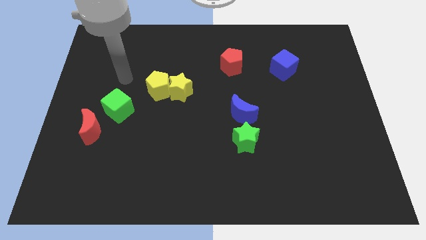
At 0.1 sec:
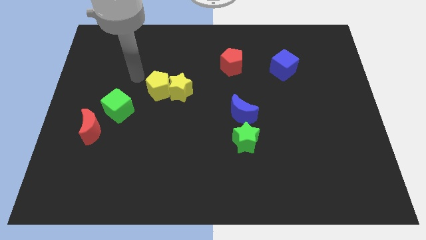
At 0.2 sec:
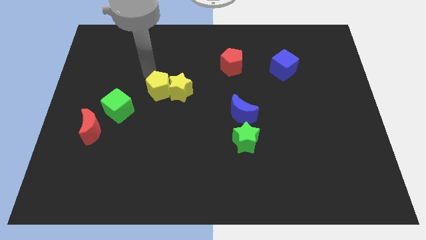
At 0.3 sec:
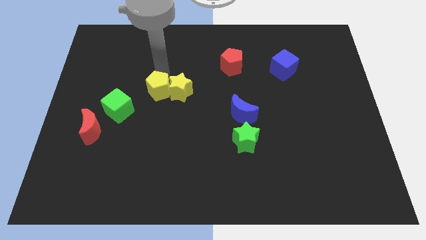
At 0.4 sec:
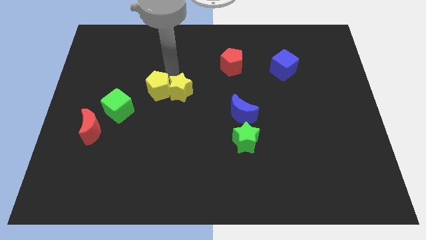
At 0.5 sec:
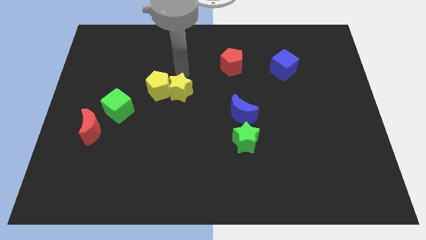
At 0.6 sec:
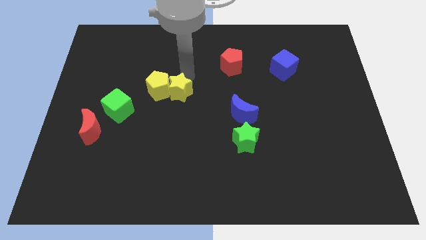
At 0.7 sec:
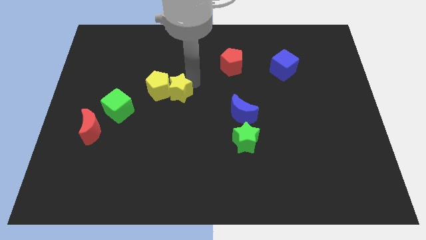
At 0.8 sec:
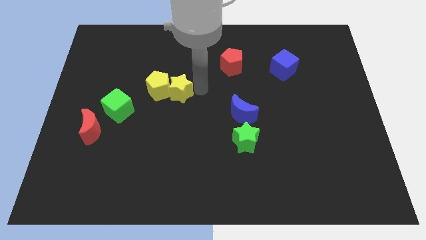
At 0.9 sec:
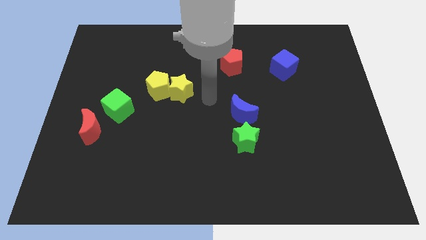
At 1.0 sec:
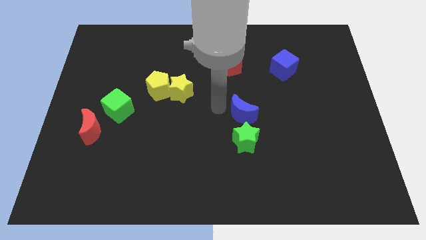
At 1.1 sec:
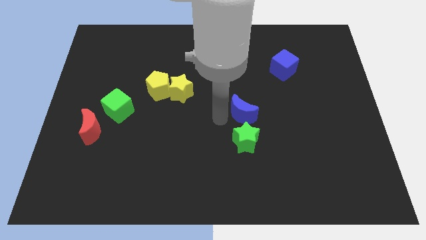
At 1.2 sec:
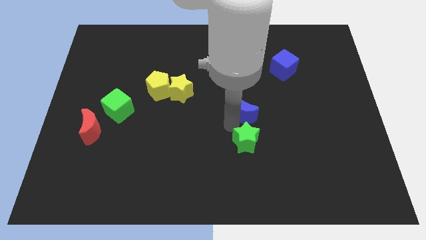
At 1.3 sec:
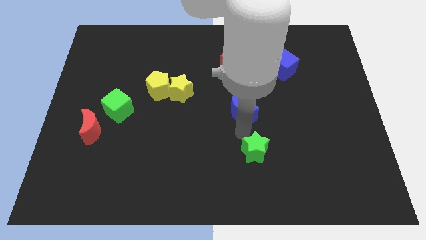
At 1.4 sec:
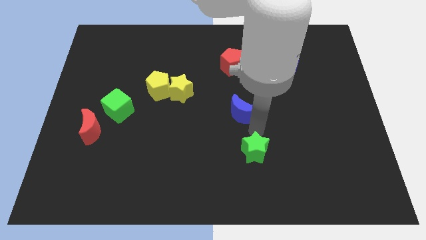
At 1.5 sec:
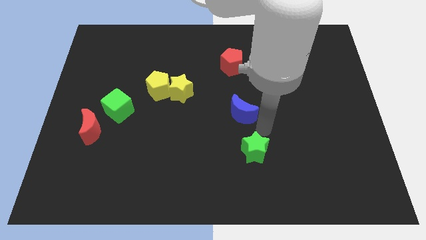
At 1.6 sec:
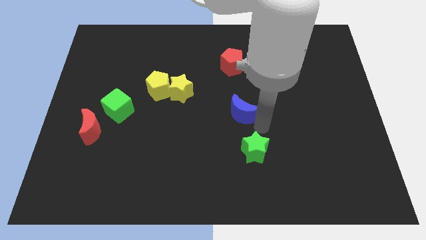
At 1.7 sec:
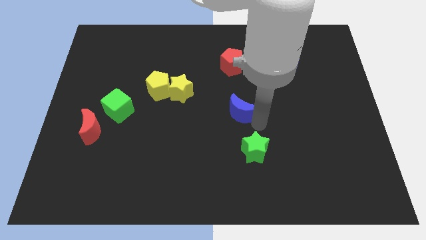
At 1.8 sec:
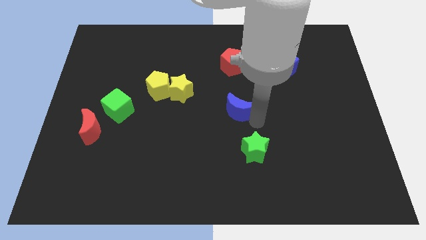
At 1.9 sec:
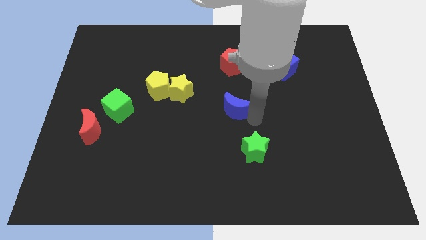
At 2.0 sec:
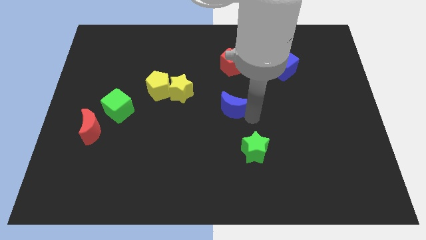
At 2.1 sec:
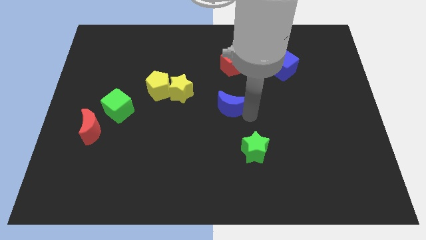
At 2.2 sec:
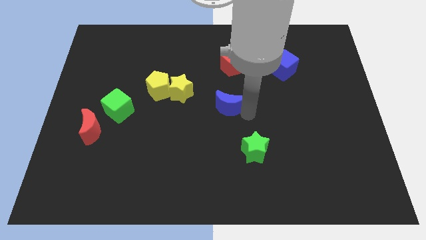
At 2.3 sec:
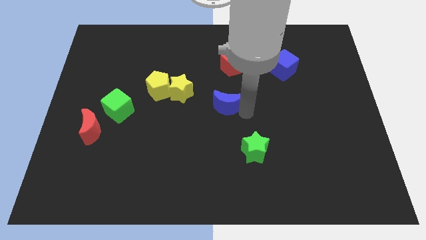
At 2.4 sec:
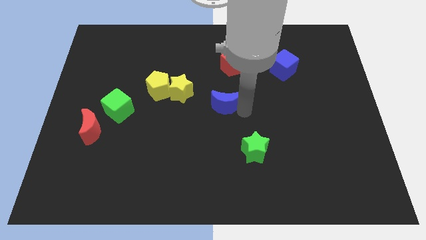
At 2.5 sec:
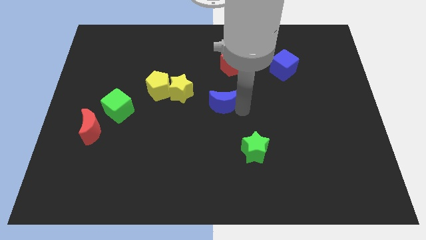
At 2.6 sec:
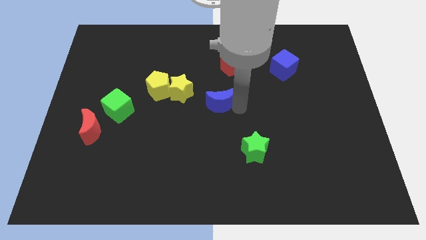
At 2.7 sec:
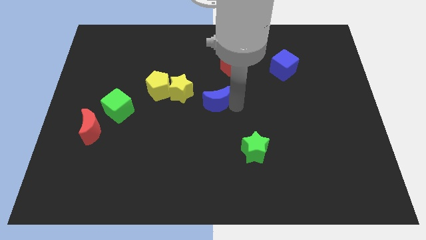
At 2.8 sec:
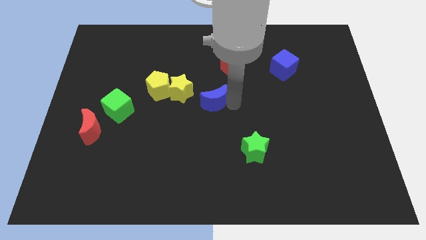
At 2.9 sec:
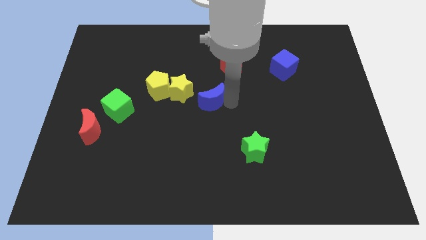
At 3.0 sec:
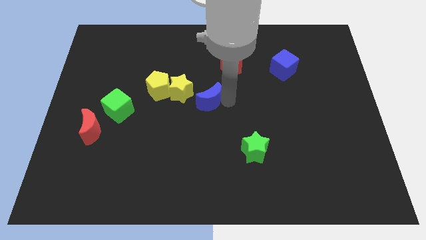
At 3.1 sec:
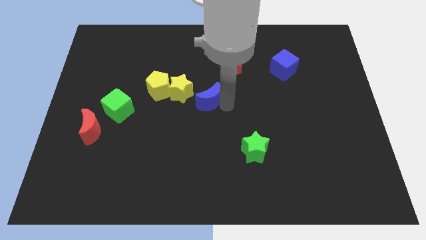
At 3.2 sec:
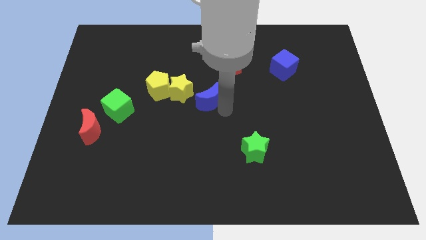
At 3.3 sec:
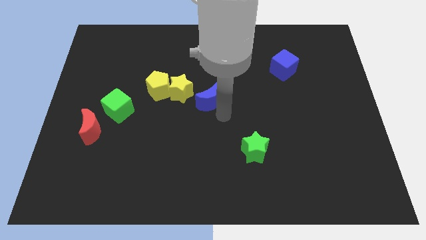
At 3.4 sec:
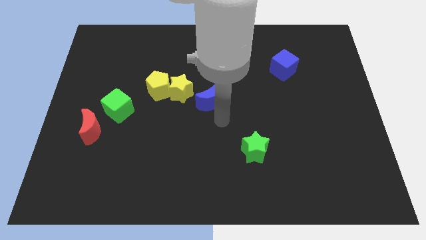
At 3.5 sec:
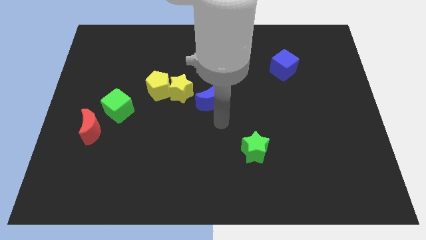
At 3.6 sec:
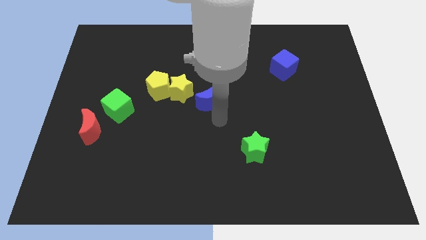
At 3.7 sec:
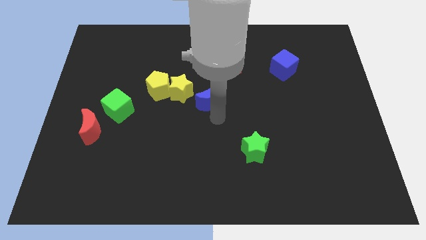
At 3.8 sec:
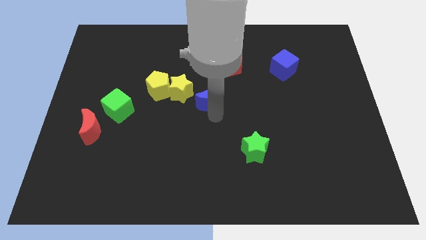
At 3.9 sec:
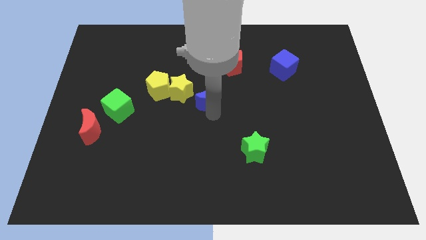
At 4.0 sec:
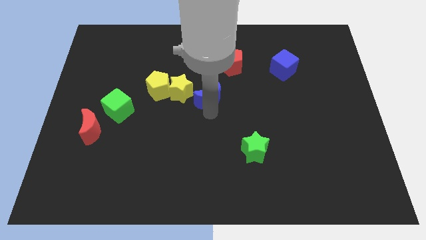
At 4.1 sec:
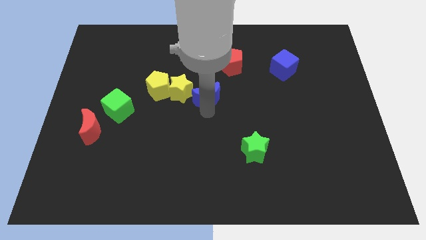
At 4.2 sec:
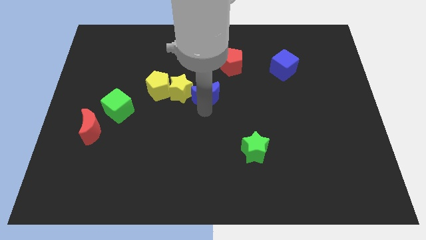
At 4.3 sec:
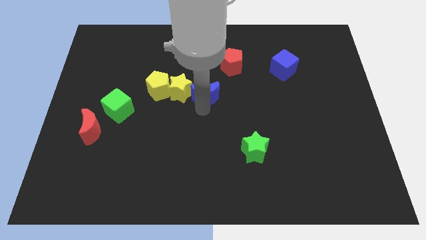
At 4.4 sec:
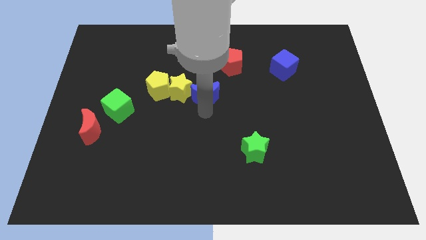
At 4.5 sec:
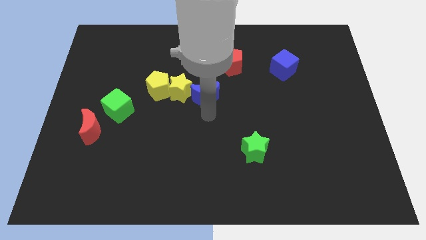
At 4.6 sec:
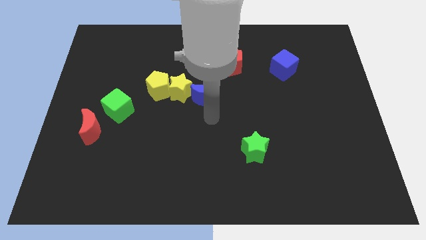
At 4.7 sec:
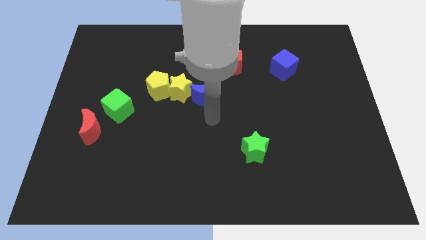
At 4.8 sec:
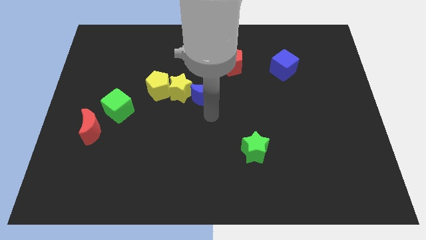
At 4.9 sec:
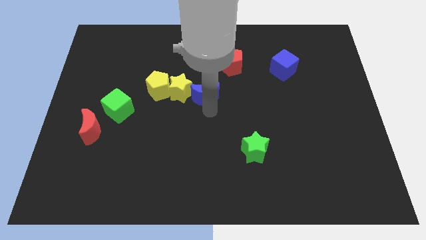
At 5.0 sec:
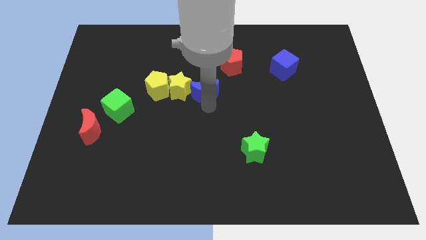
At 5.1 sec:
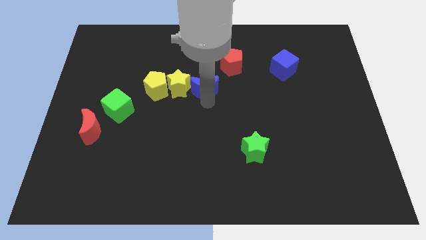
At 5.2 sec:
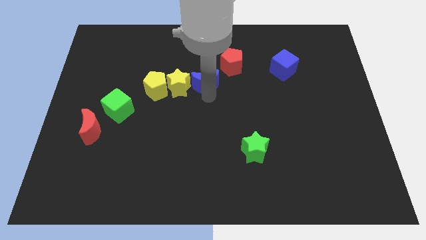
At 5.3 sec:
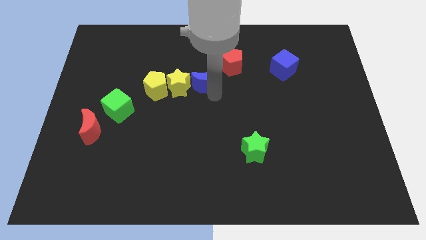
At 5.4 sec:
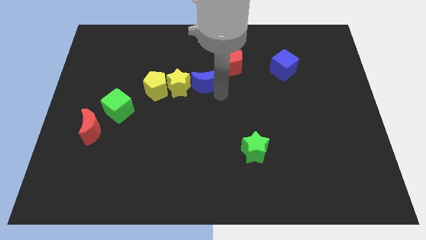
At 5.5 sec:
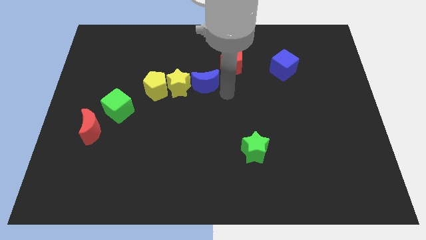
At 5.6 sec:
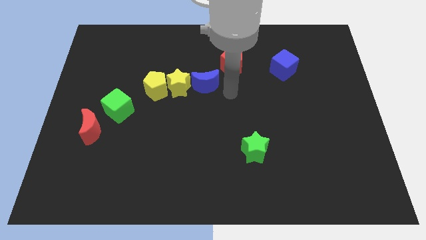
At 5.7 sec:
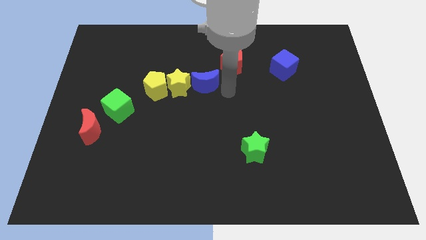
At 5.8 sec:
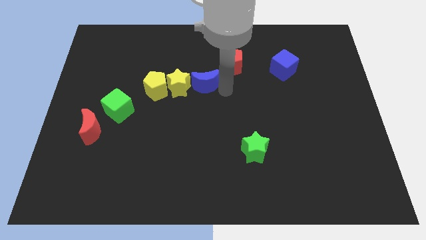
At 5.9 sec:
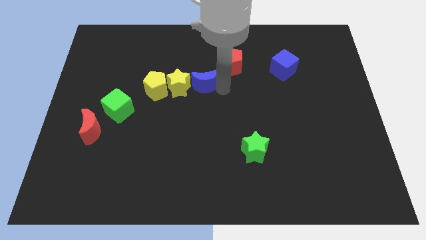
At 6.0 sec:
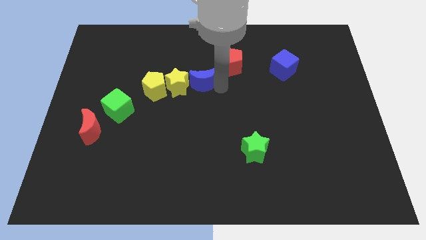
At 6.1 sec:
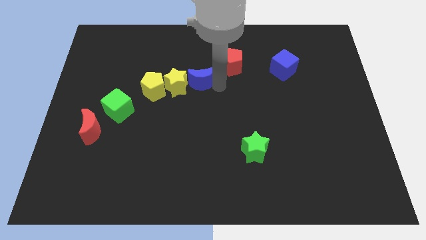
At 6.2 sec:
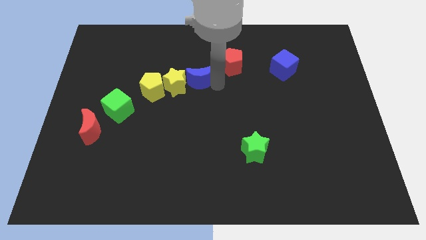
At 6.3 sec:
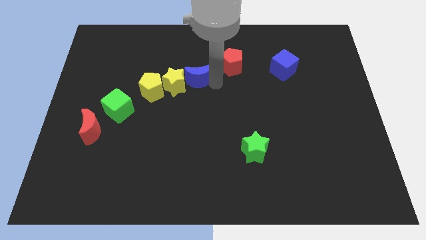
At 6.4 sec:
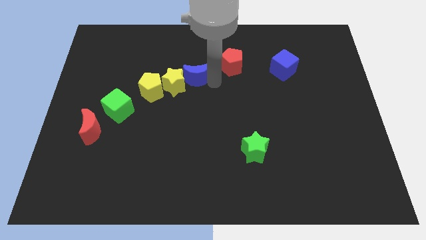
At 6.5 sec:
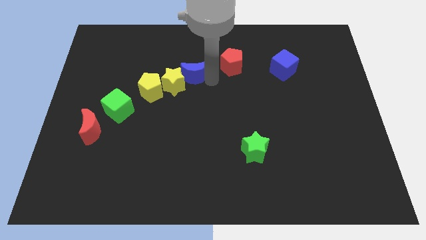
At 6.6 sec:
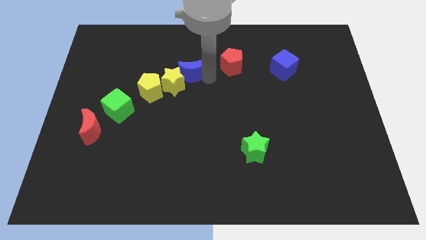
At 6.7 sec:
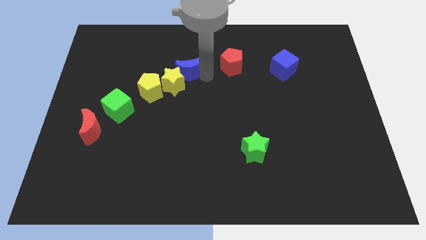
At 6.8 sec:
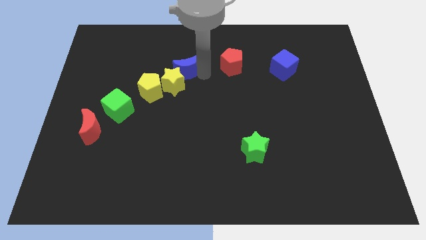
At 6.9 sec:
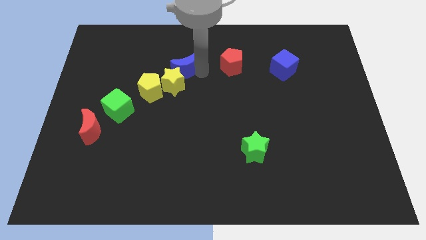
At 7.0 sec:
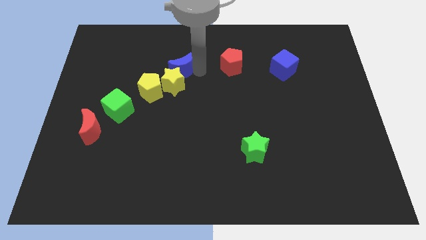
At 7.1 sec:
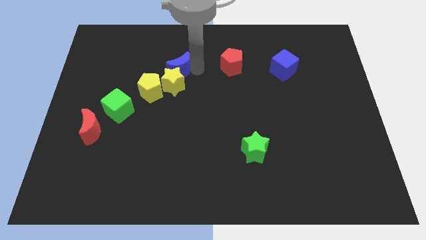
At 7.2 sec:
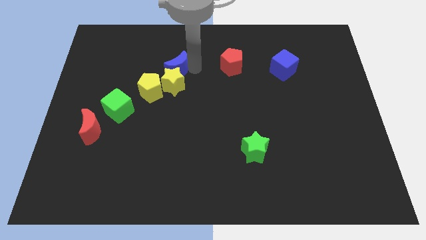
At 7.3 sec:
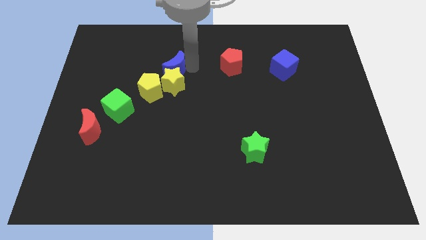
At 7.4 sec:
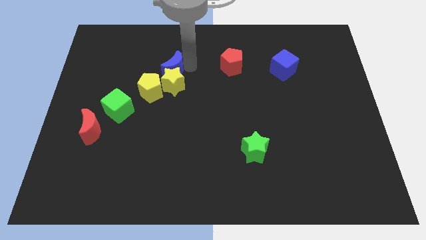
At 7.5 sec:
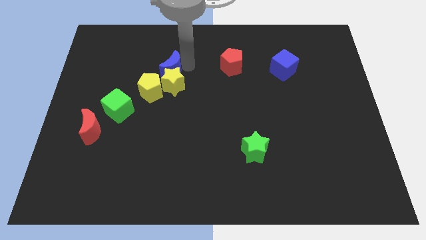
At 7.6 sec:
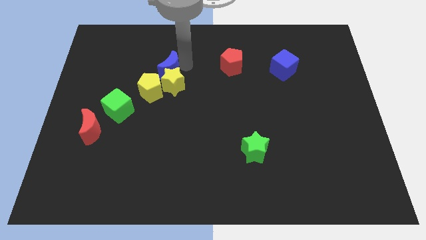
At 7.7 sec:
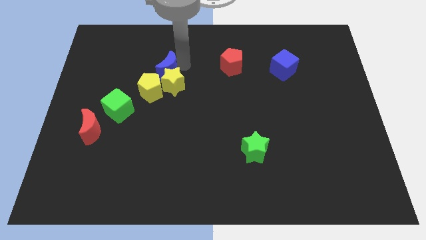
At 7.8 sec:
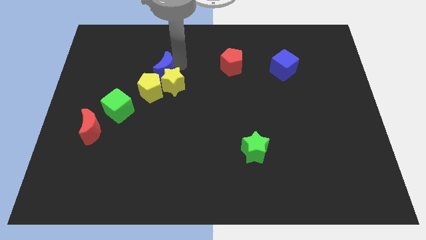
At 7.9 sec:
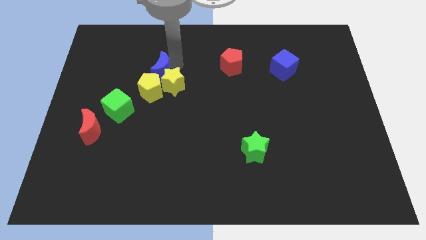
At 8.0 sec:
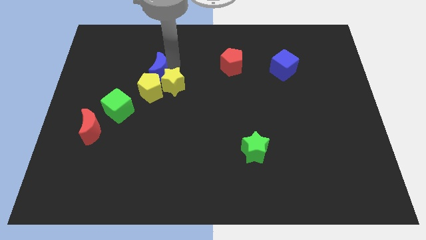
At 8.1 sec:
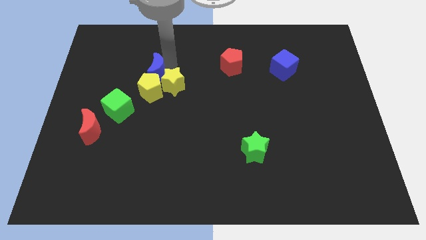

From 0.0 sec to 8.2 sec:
put the blue moon diagonally up and to the left of the yellow pentagon
